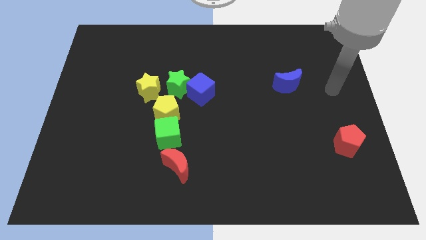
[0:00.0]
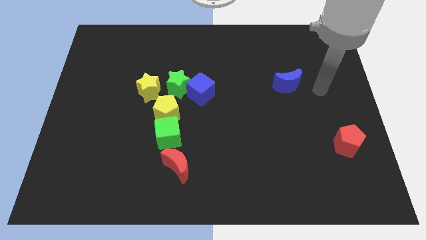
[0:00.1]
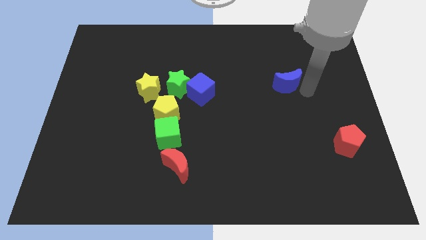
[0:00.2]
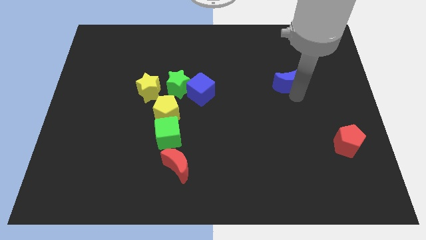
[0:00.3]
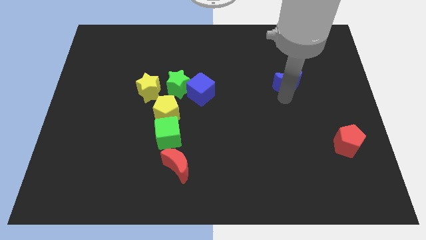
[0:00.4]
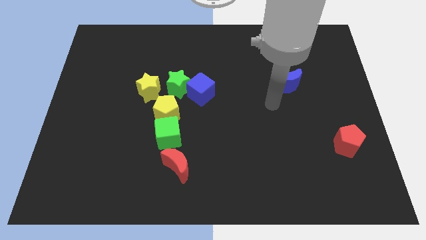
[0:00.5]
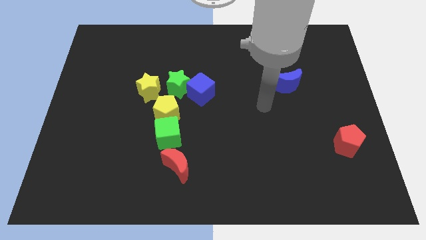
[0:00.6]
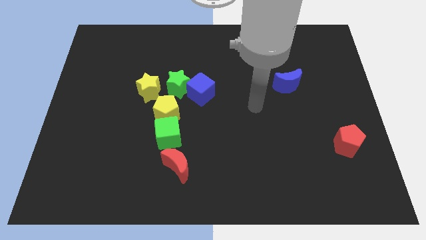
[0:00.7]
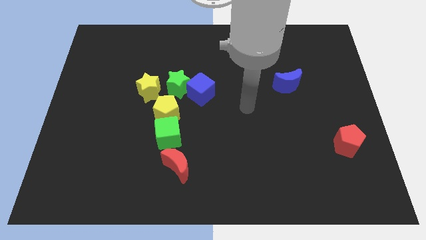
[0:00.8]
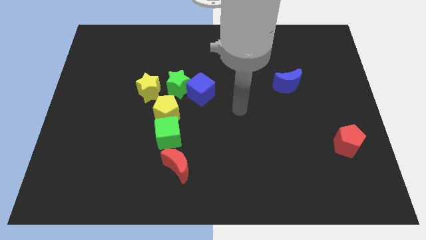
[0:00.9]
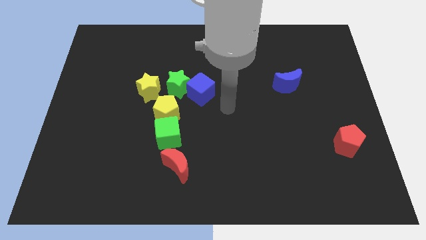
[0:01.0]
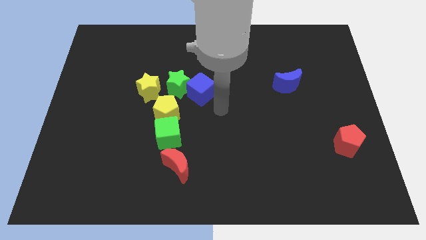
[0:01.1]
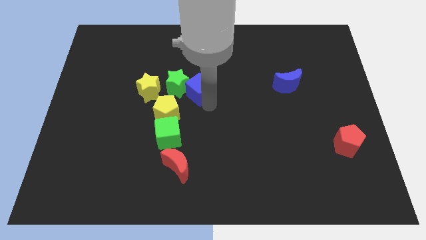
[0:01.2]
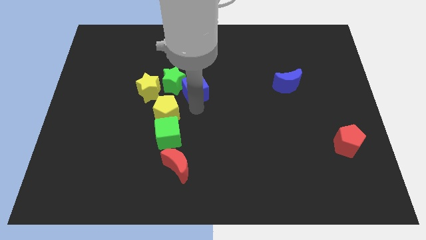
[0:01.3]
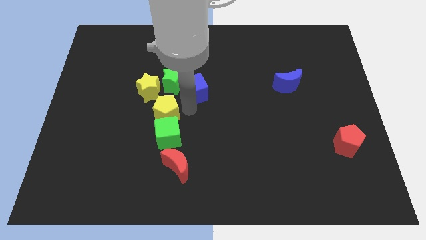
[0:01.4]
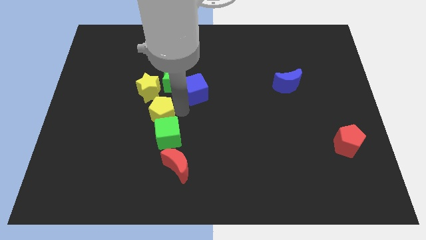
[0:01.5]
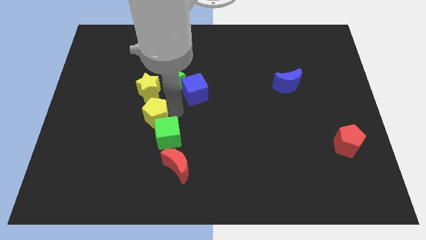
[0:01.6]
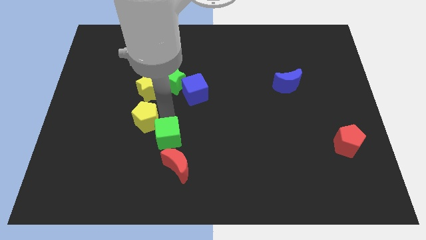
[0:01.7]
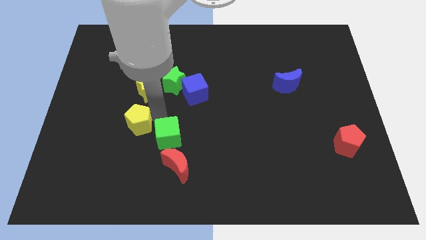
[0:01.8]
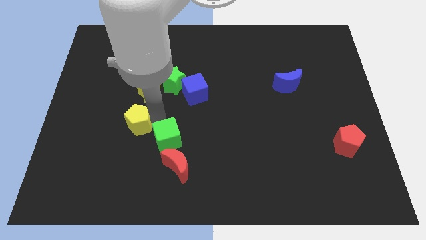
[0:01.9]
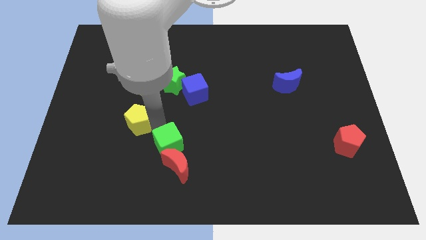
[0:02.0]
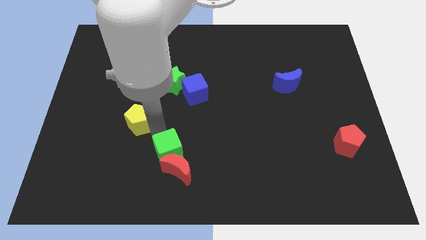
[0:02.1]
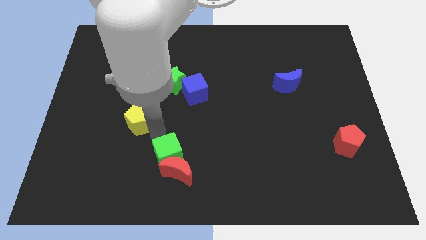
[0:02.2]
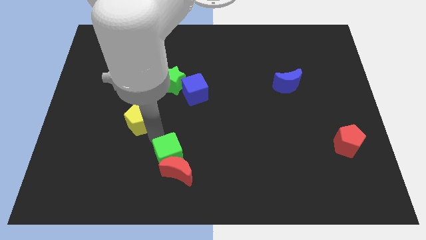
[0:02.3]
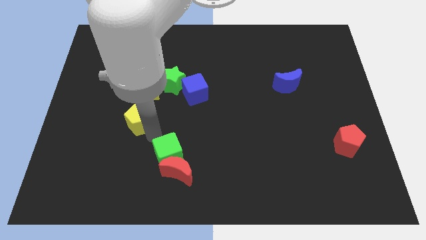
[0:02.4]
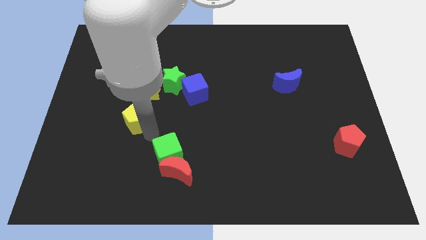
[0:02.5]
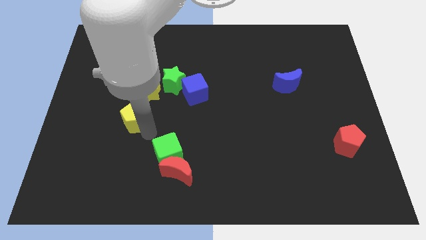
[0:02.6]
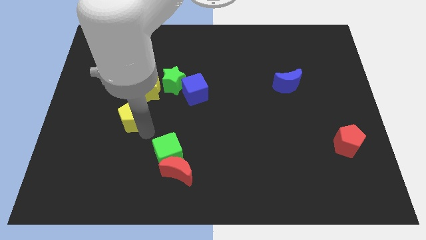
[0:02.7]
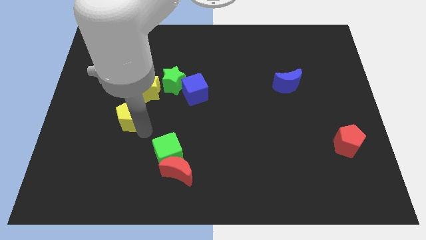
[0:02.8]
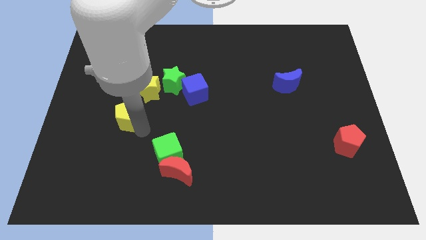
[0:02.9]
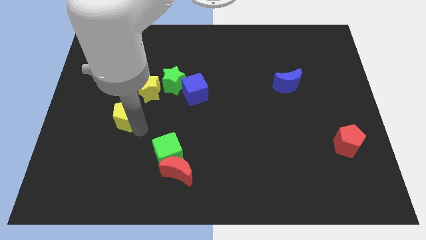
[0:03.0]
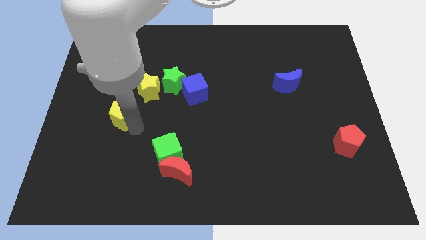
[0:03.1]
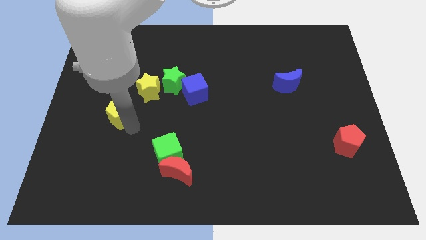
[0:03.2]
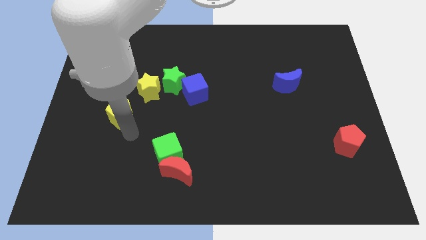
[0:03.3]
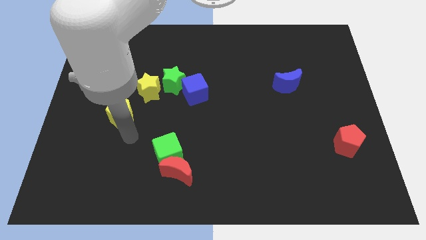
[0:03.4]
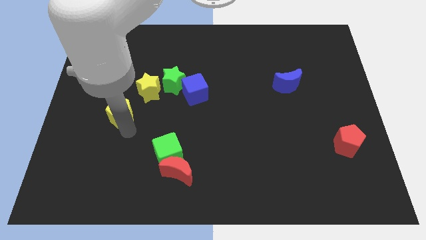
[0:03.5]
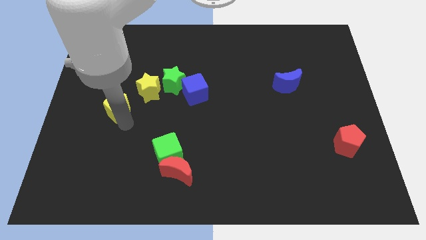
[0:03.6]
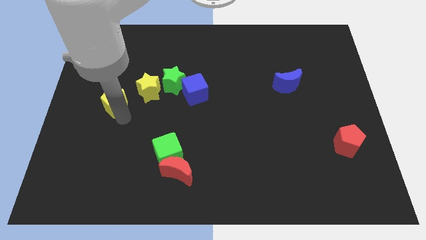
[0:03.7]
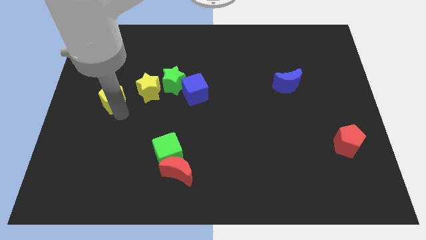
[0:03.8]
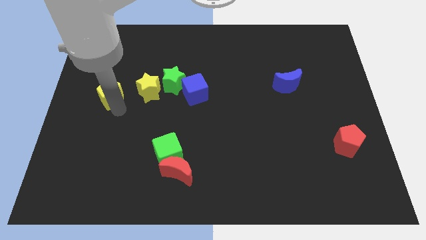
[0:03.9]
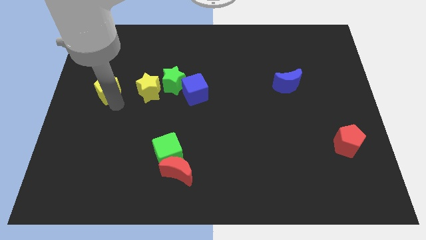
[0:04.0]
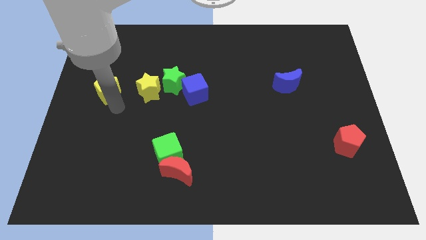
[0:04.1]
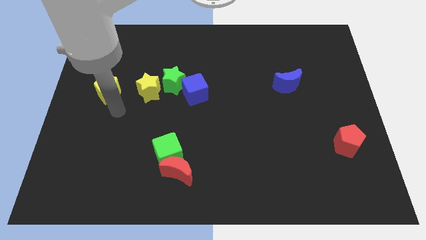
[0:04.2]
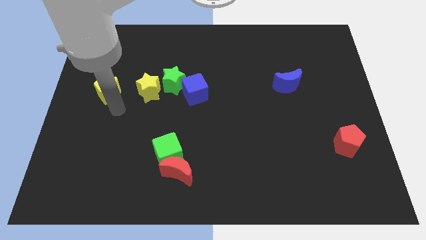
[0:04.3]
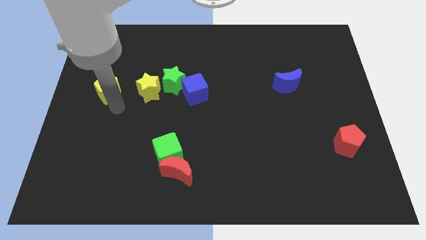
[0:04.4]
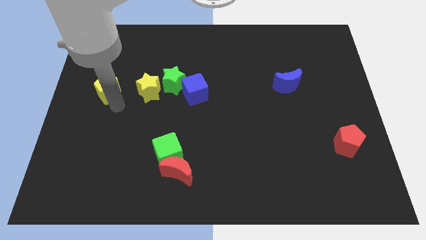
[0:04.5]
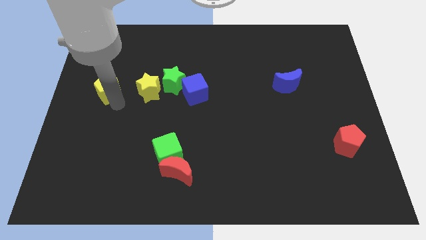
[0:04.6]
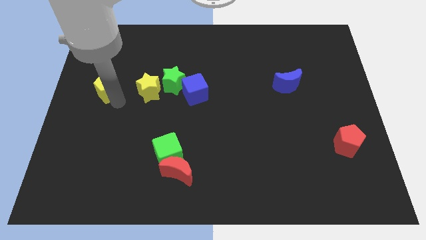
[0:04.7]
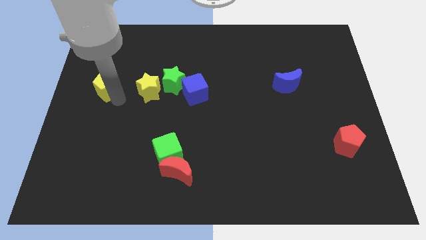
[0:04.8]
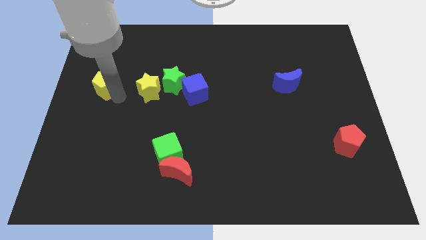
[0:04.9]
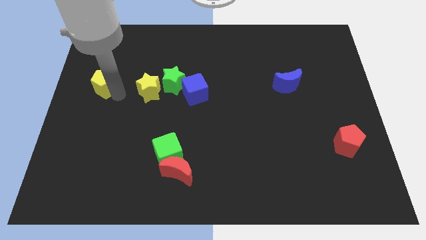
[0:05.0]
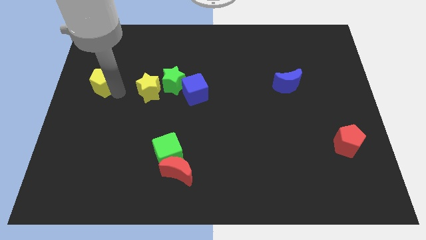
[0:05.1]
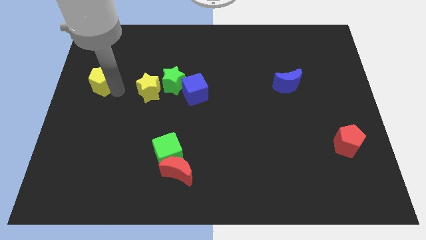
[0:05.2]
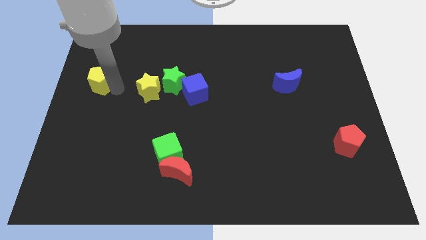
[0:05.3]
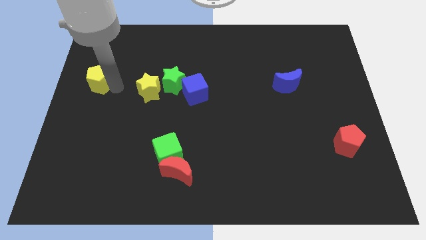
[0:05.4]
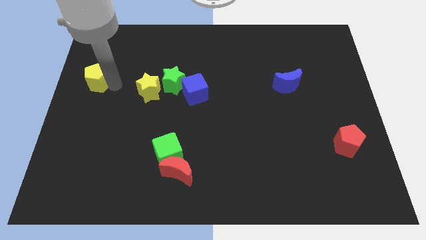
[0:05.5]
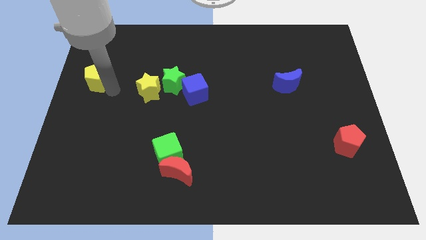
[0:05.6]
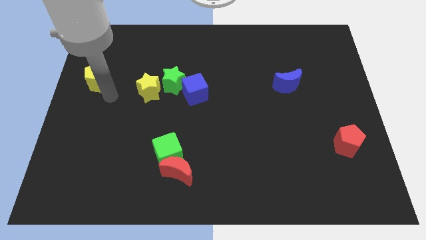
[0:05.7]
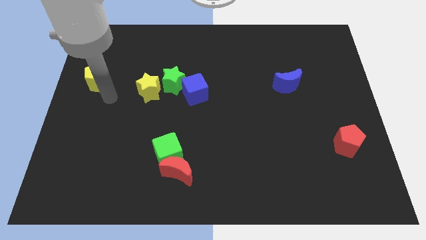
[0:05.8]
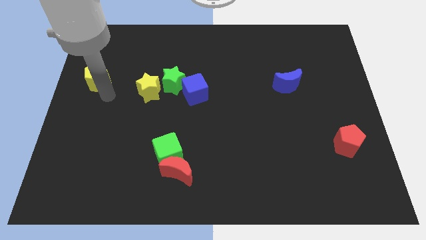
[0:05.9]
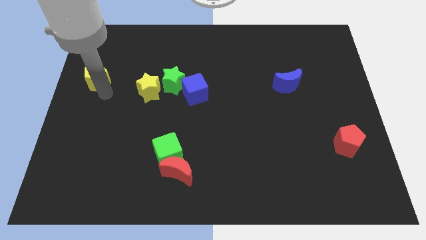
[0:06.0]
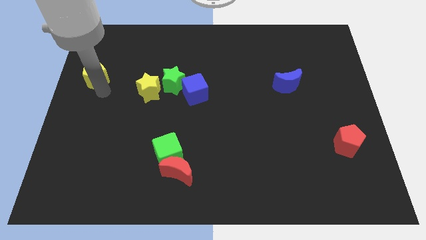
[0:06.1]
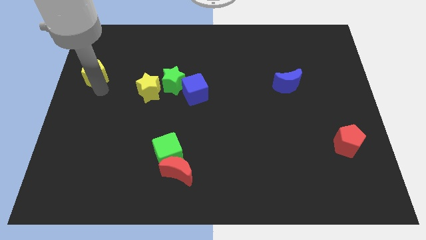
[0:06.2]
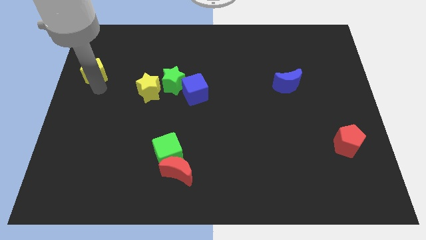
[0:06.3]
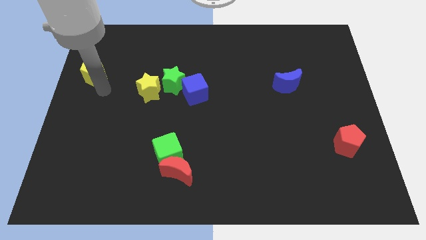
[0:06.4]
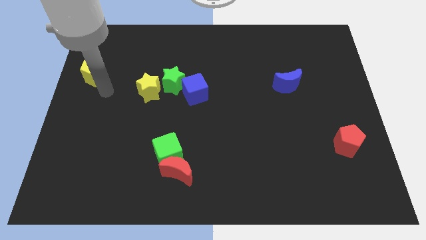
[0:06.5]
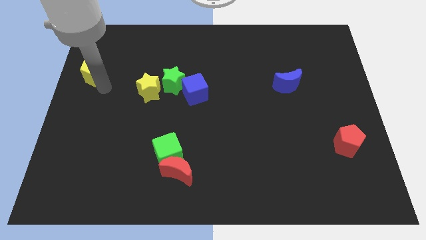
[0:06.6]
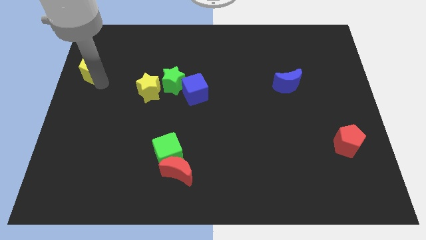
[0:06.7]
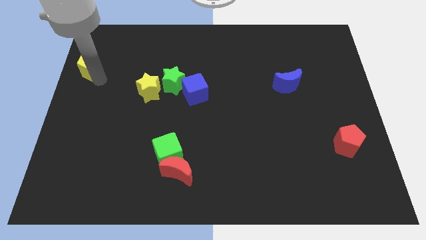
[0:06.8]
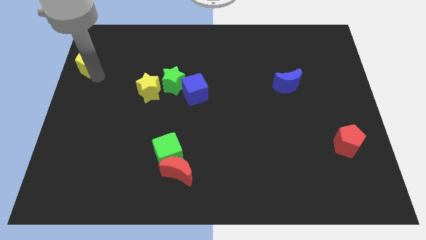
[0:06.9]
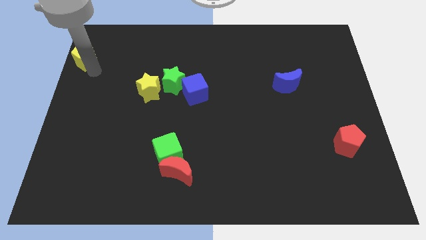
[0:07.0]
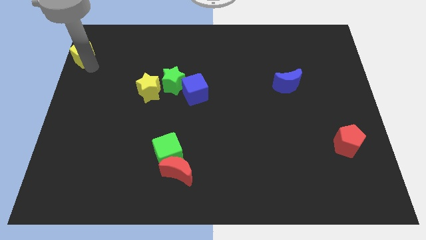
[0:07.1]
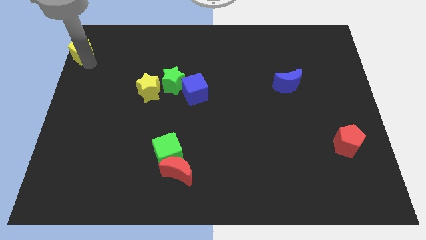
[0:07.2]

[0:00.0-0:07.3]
move the yellow pentagon to the top left of the board
